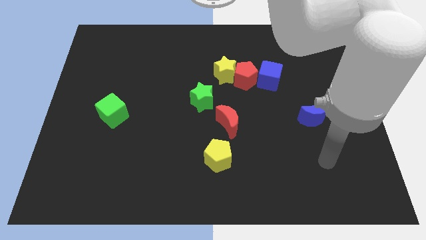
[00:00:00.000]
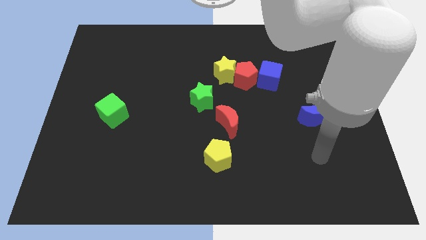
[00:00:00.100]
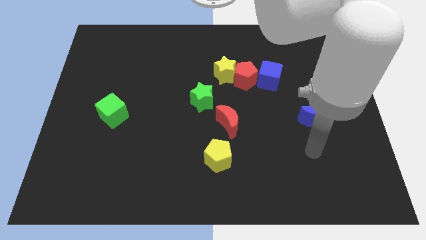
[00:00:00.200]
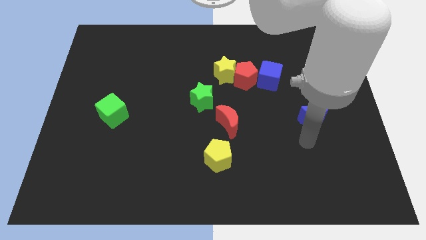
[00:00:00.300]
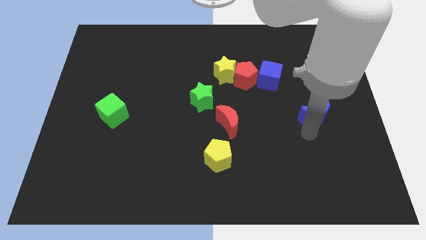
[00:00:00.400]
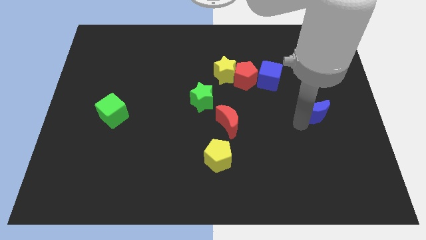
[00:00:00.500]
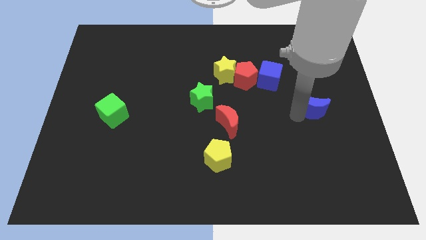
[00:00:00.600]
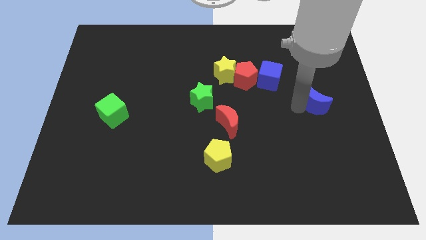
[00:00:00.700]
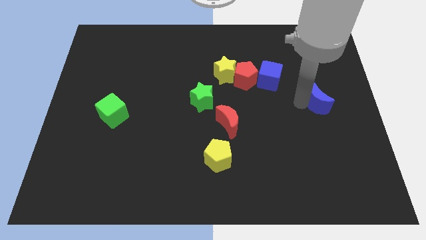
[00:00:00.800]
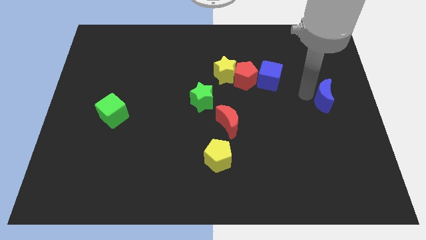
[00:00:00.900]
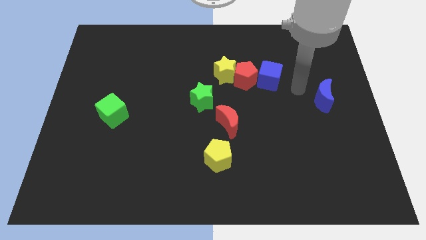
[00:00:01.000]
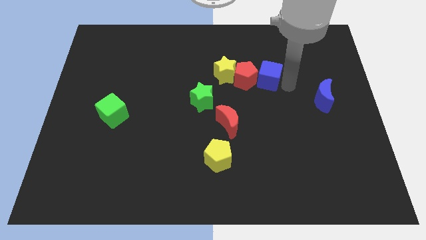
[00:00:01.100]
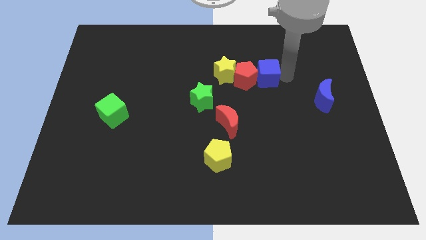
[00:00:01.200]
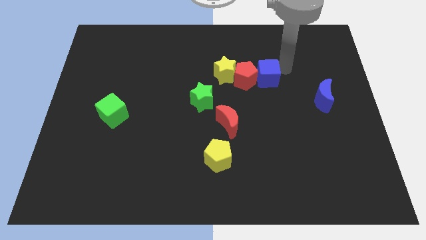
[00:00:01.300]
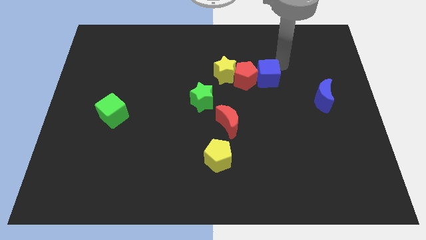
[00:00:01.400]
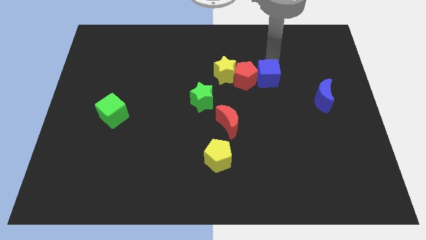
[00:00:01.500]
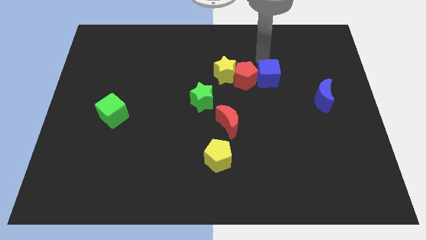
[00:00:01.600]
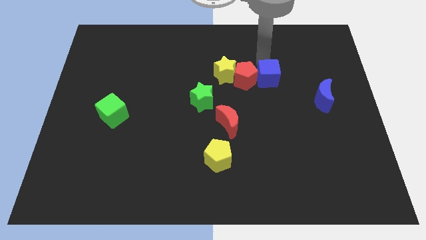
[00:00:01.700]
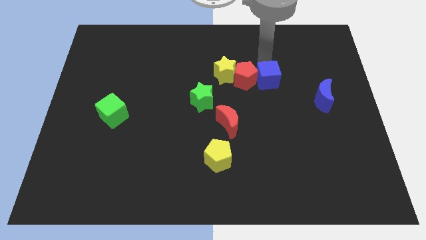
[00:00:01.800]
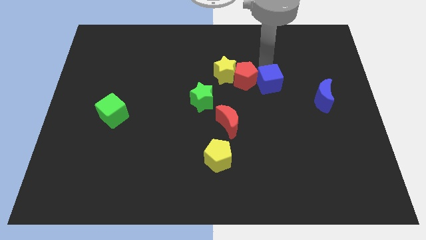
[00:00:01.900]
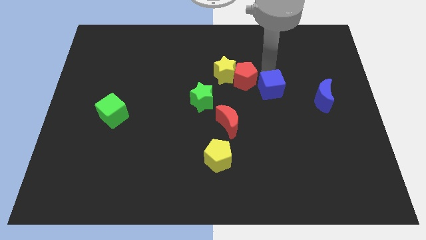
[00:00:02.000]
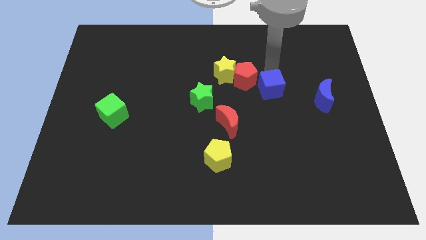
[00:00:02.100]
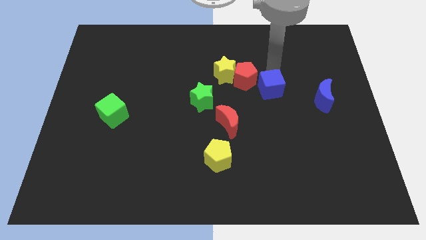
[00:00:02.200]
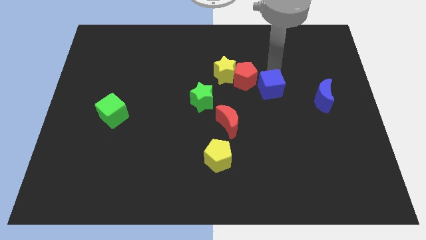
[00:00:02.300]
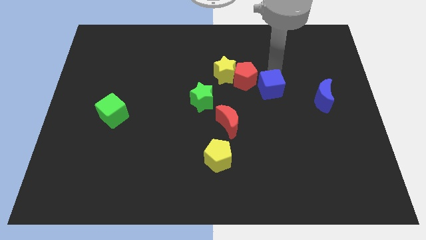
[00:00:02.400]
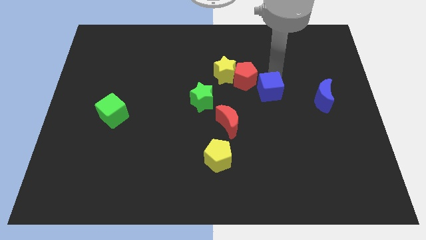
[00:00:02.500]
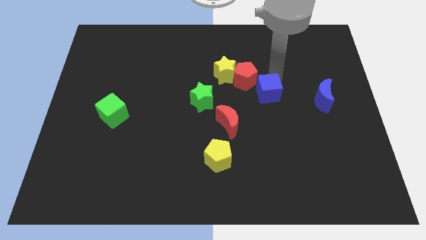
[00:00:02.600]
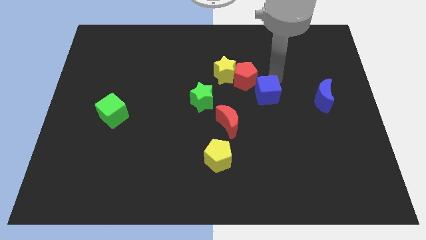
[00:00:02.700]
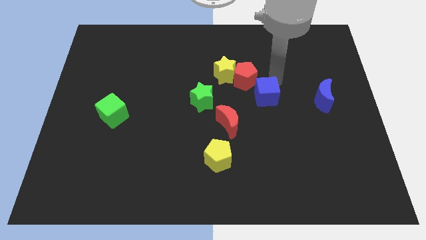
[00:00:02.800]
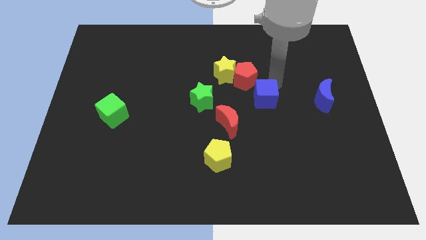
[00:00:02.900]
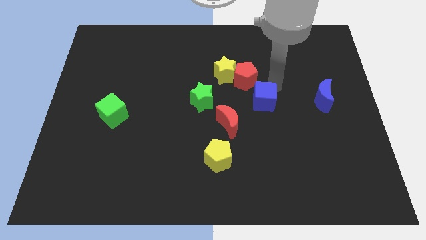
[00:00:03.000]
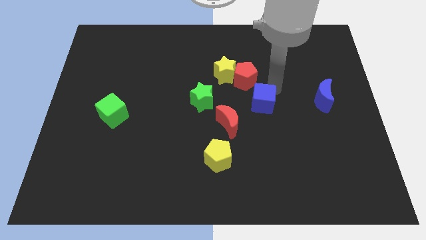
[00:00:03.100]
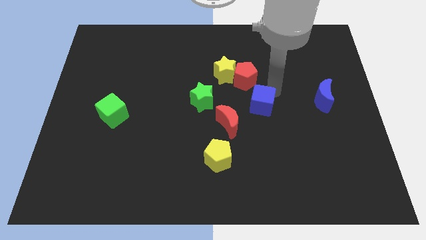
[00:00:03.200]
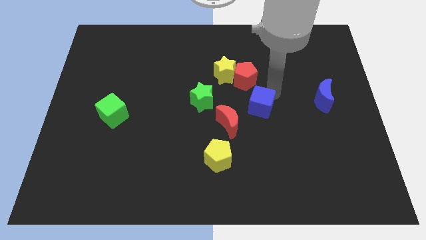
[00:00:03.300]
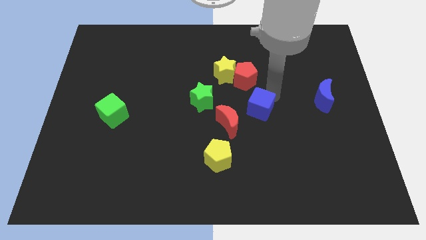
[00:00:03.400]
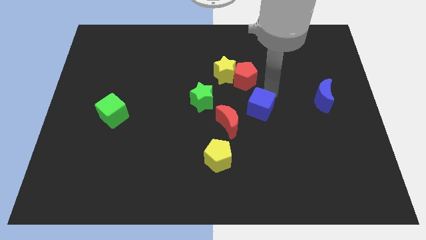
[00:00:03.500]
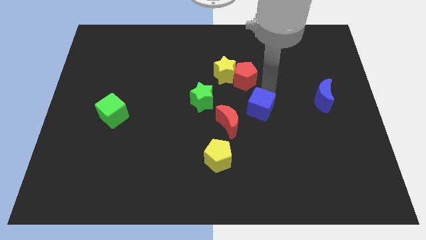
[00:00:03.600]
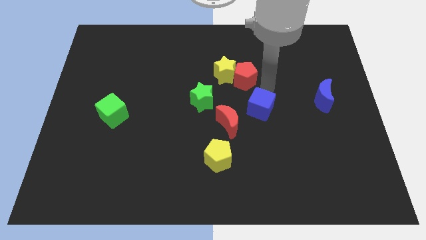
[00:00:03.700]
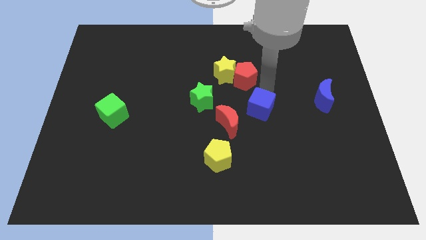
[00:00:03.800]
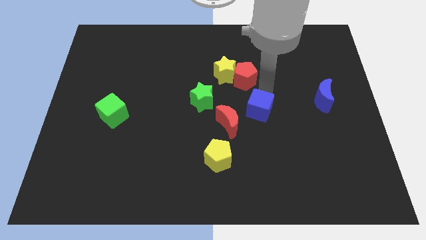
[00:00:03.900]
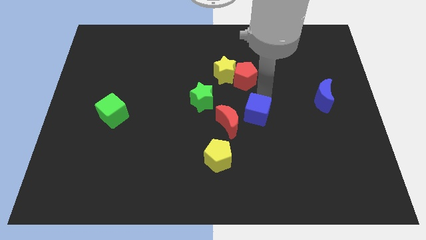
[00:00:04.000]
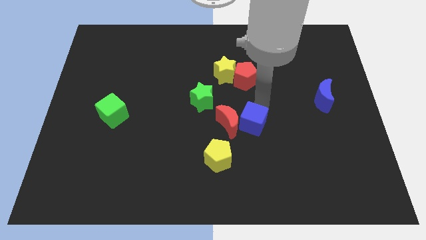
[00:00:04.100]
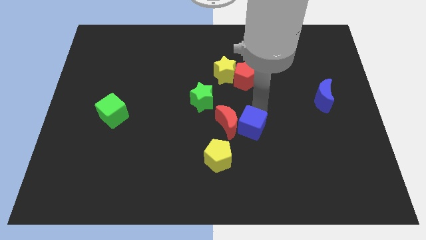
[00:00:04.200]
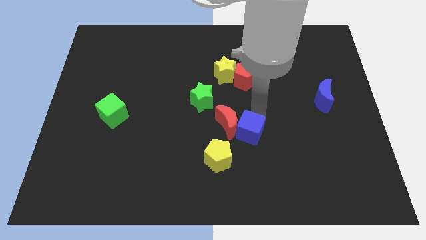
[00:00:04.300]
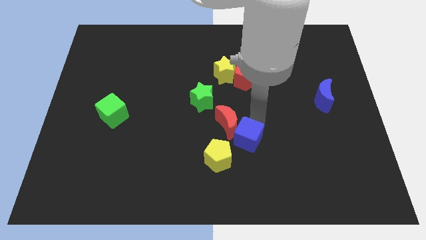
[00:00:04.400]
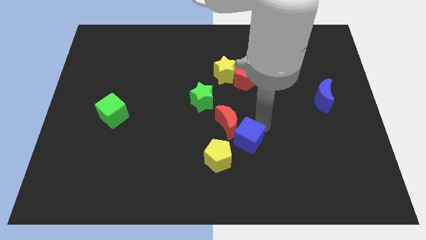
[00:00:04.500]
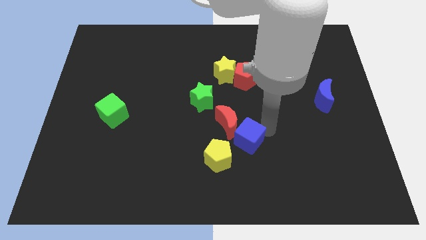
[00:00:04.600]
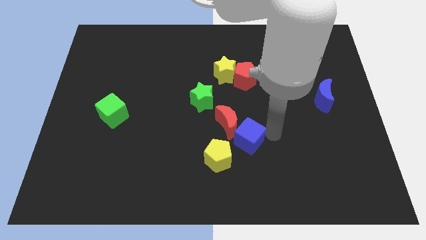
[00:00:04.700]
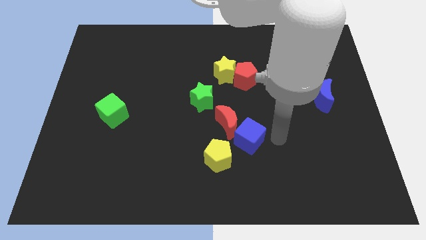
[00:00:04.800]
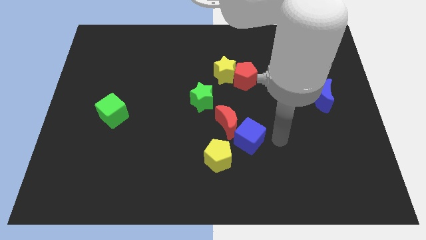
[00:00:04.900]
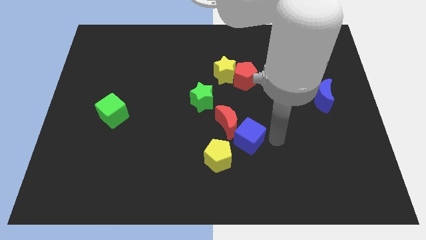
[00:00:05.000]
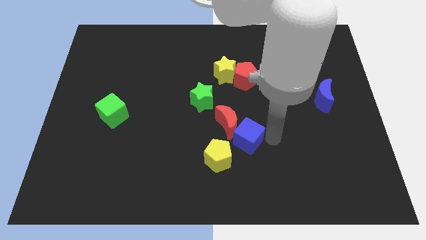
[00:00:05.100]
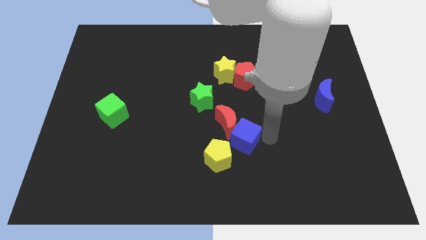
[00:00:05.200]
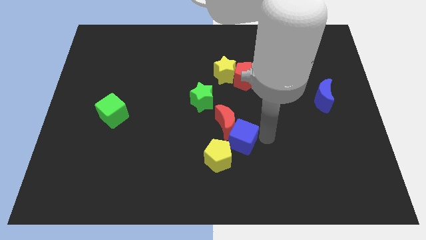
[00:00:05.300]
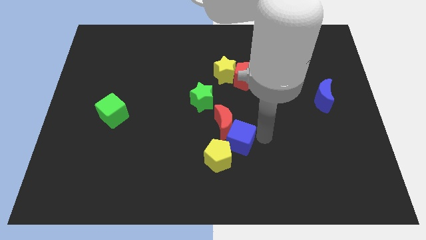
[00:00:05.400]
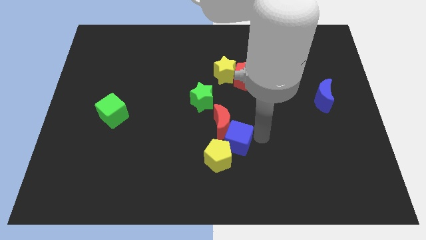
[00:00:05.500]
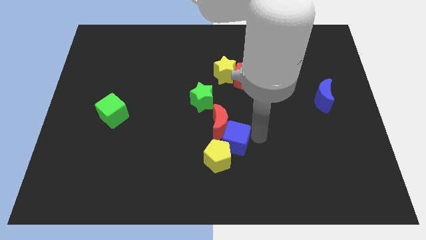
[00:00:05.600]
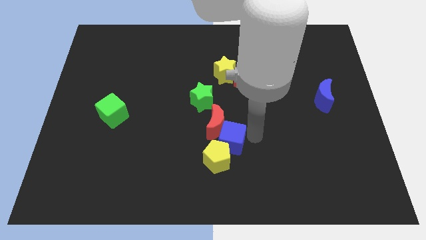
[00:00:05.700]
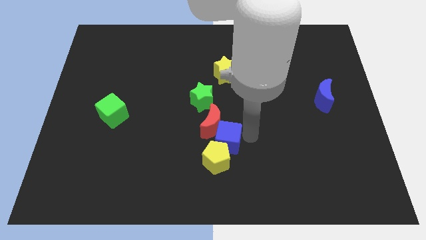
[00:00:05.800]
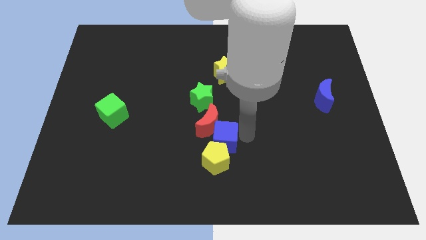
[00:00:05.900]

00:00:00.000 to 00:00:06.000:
slide the blue cube down and then to the left

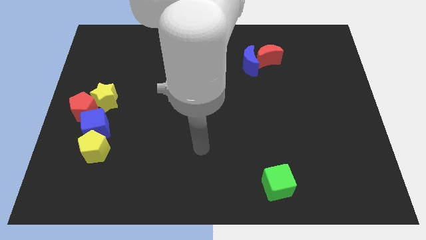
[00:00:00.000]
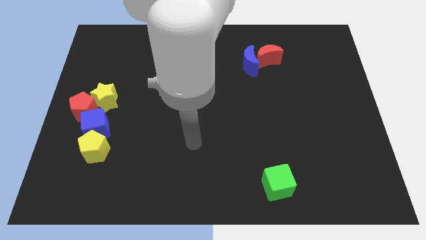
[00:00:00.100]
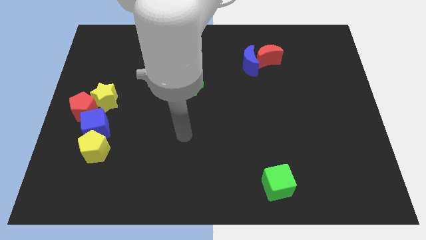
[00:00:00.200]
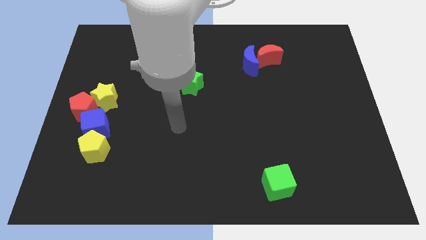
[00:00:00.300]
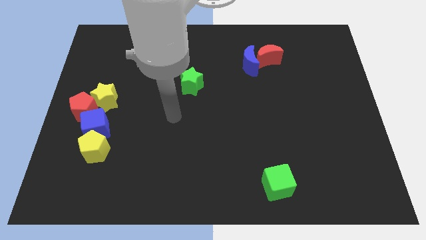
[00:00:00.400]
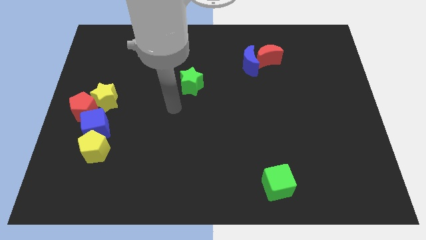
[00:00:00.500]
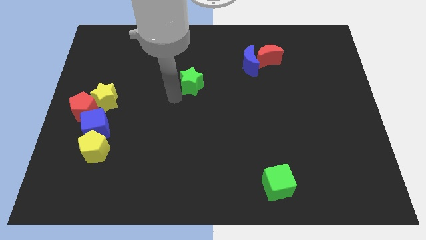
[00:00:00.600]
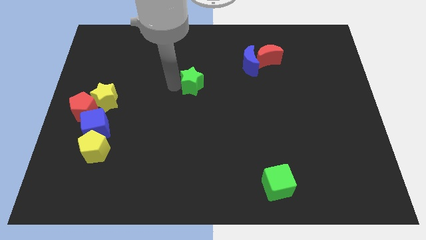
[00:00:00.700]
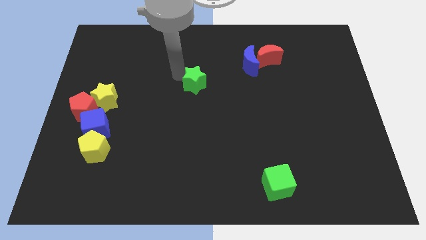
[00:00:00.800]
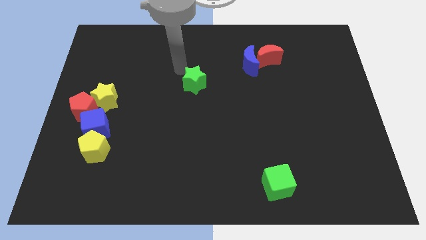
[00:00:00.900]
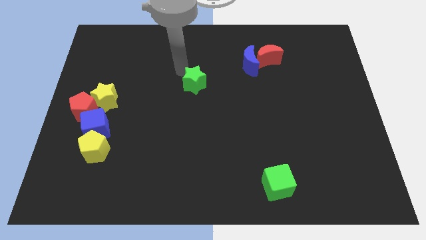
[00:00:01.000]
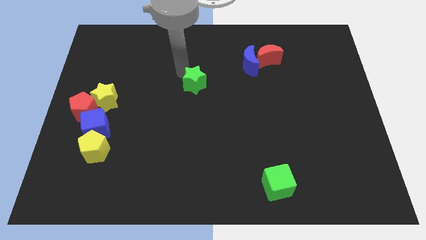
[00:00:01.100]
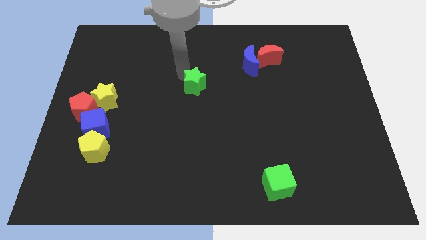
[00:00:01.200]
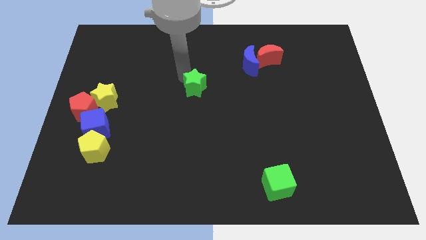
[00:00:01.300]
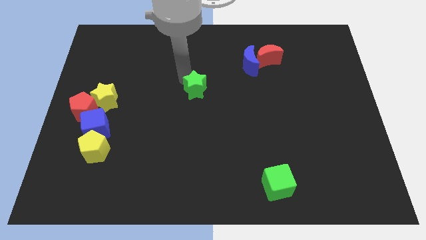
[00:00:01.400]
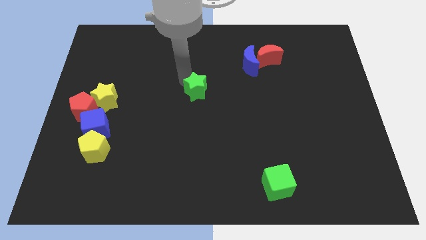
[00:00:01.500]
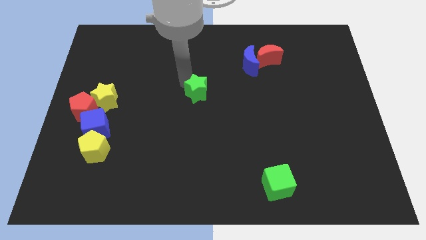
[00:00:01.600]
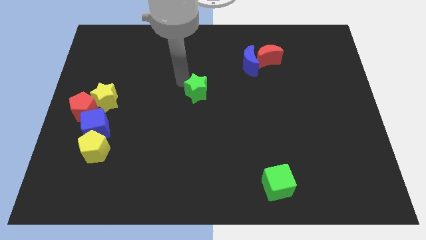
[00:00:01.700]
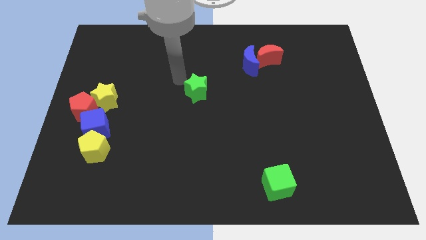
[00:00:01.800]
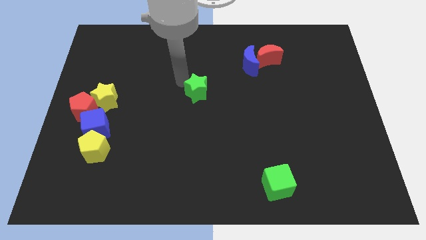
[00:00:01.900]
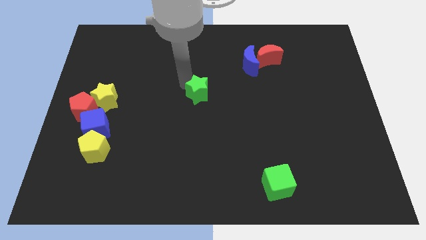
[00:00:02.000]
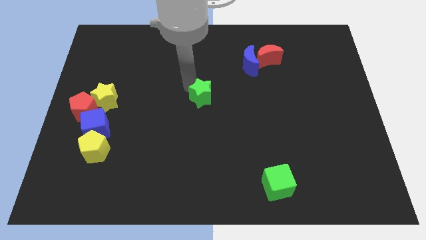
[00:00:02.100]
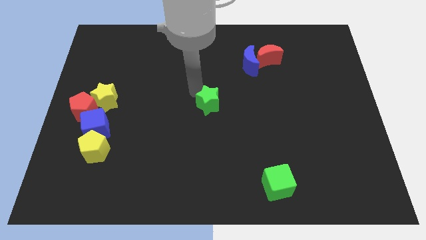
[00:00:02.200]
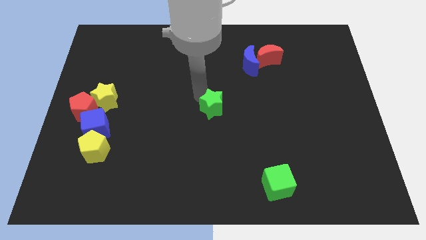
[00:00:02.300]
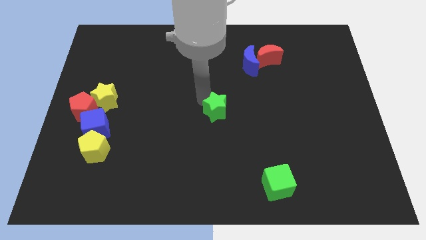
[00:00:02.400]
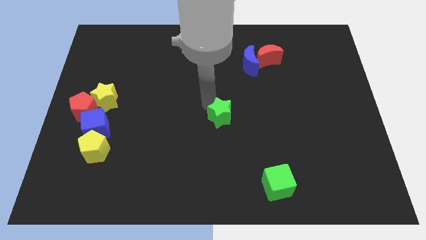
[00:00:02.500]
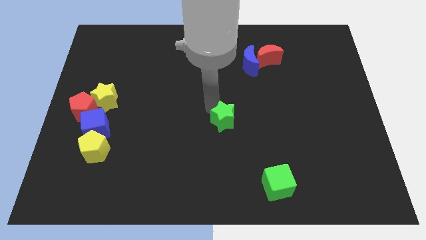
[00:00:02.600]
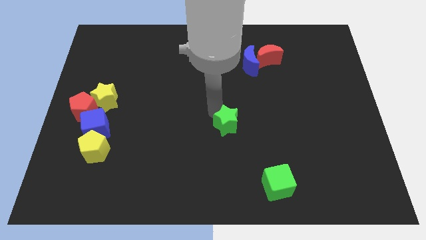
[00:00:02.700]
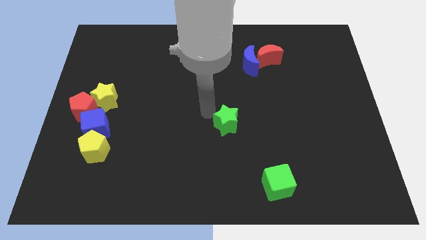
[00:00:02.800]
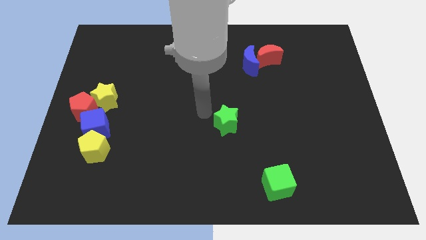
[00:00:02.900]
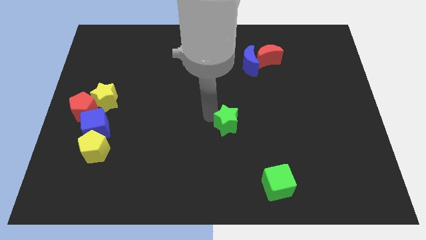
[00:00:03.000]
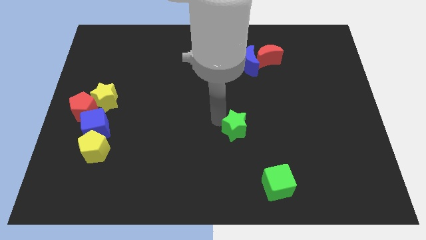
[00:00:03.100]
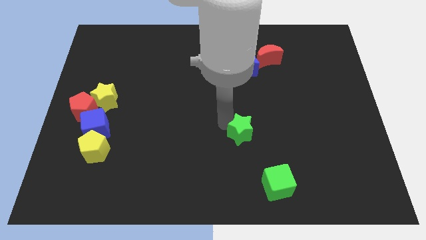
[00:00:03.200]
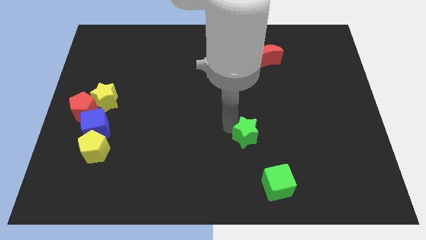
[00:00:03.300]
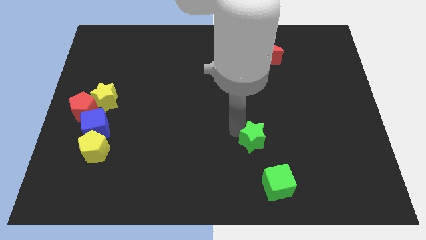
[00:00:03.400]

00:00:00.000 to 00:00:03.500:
push the green star diagonally downwards and to the right
